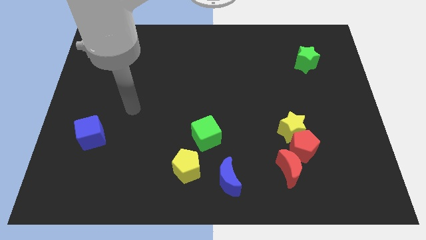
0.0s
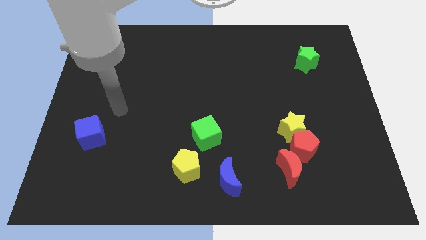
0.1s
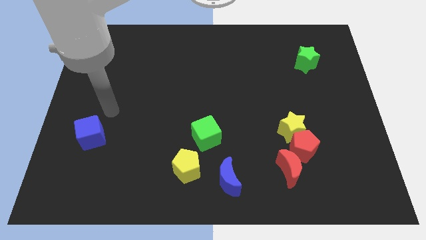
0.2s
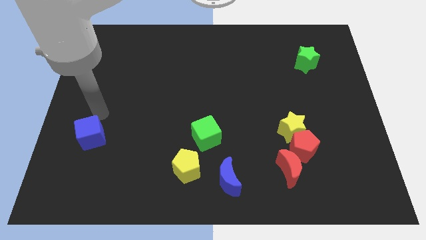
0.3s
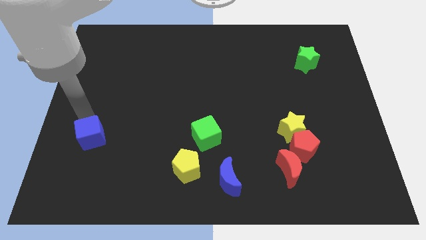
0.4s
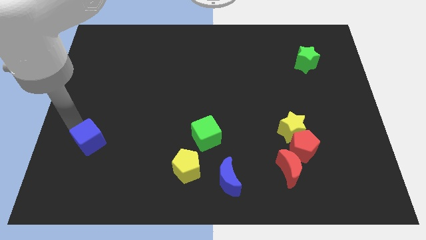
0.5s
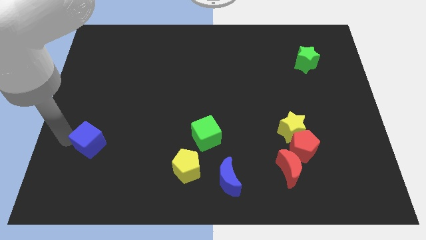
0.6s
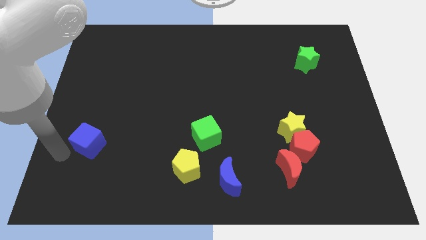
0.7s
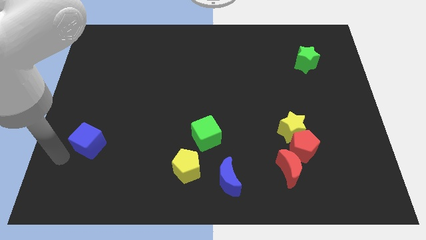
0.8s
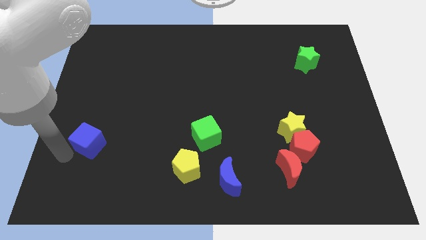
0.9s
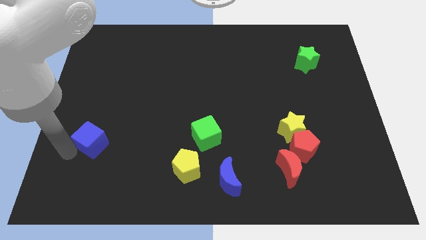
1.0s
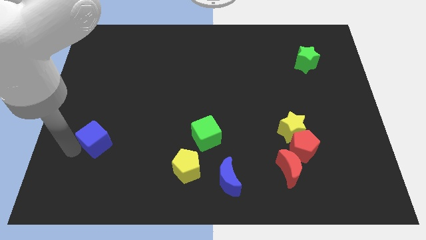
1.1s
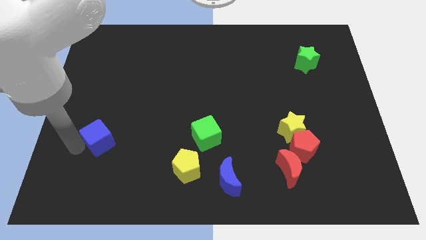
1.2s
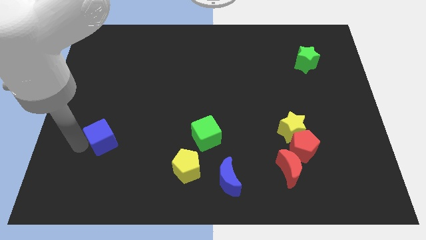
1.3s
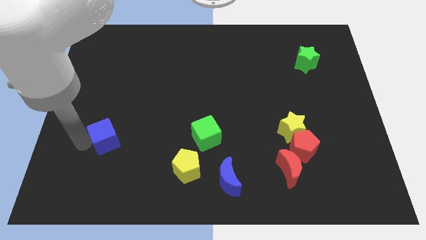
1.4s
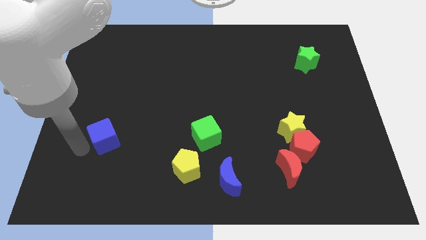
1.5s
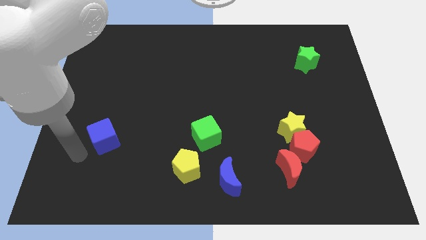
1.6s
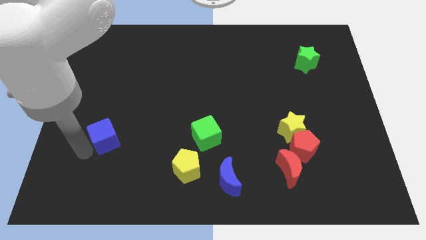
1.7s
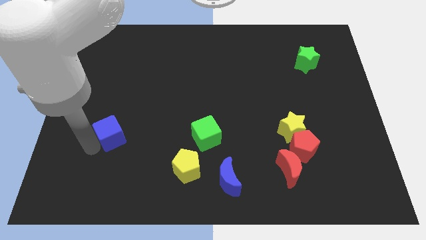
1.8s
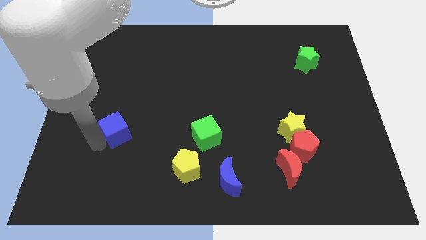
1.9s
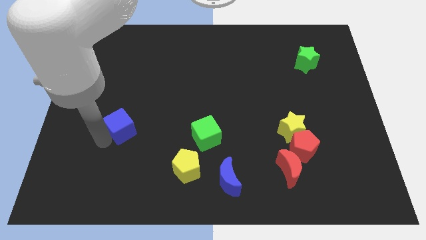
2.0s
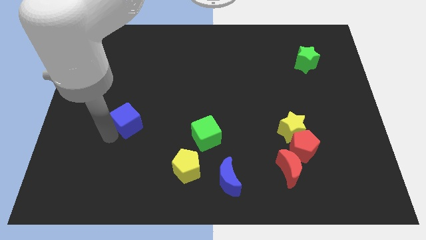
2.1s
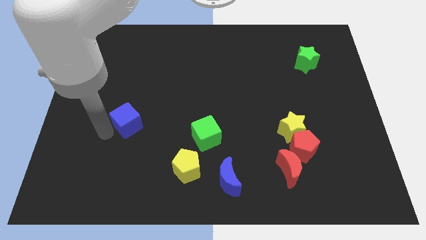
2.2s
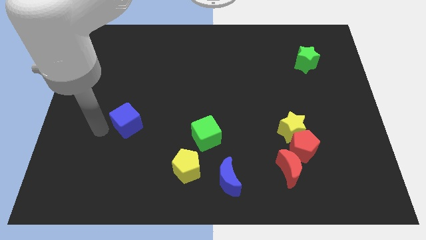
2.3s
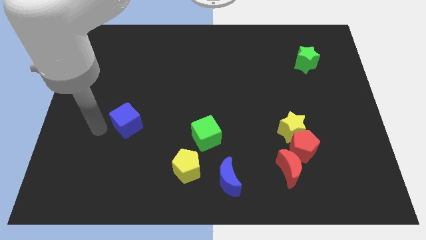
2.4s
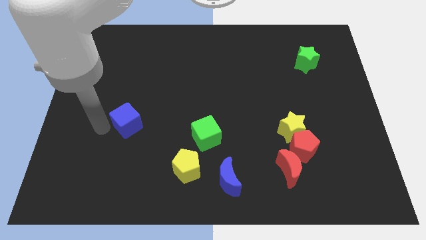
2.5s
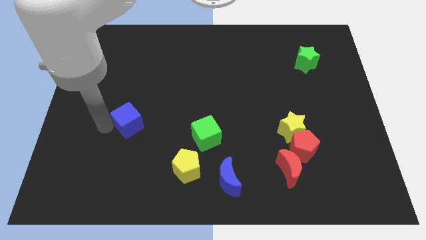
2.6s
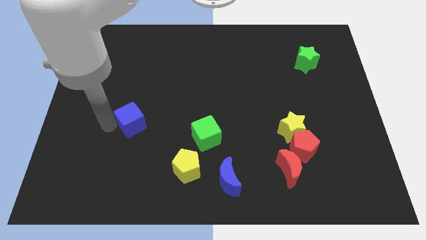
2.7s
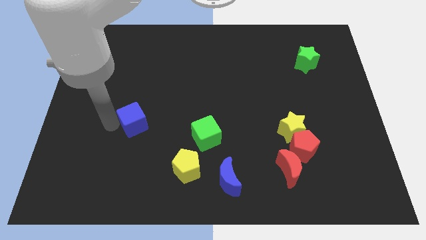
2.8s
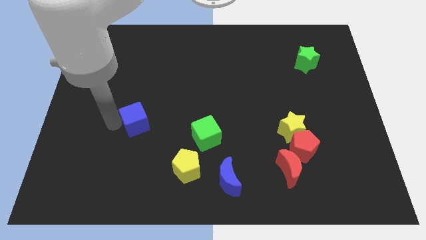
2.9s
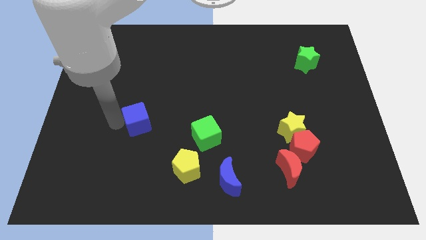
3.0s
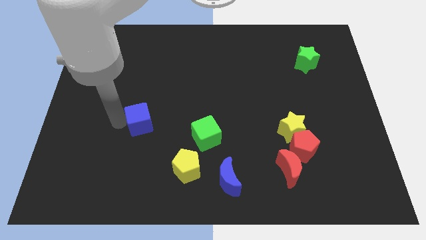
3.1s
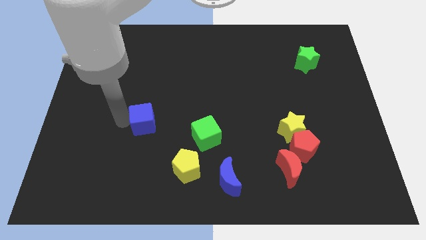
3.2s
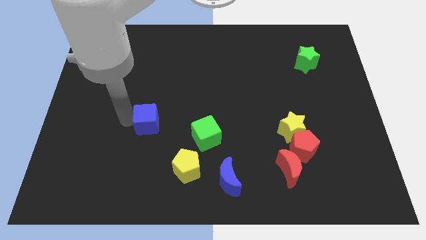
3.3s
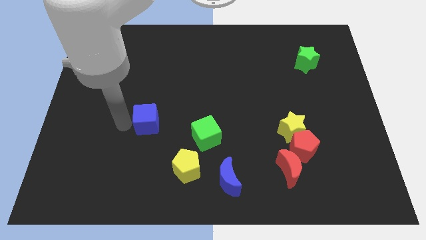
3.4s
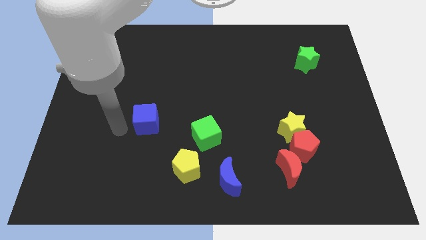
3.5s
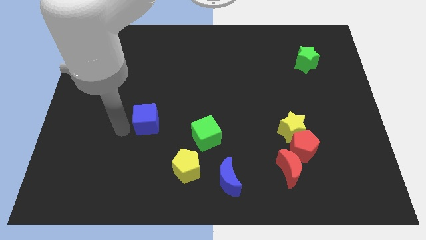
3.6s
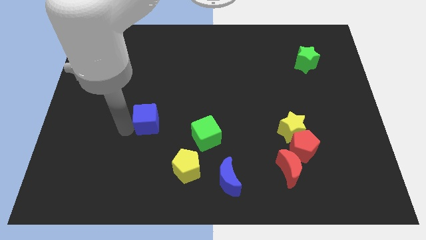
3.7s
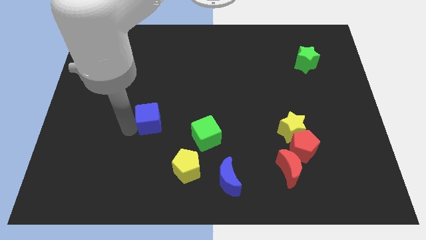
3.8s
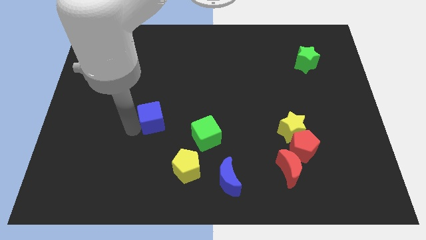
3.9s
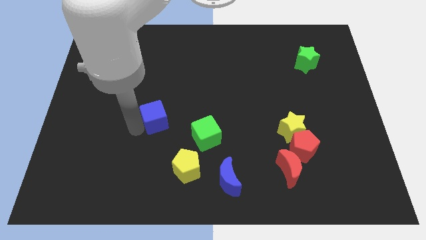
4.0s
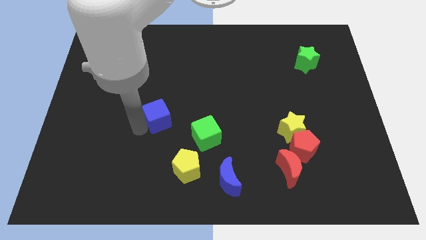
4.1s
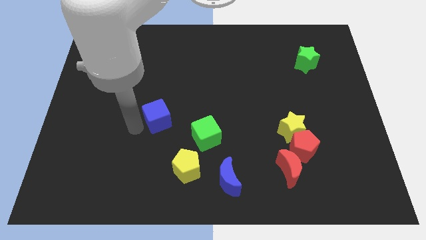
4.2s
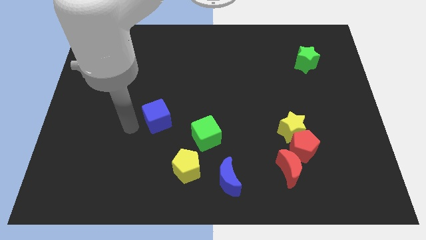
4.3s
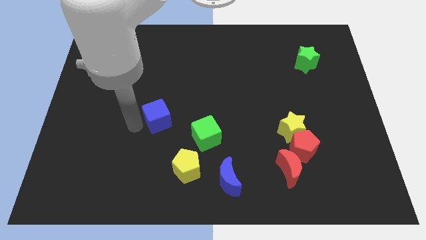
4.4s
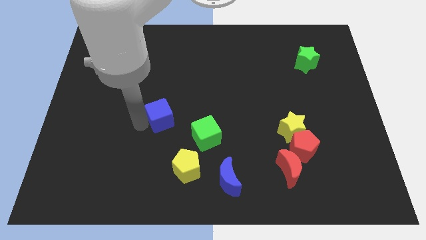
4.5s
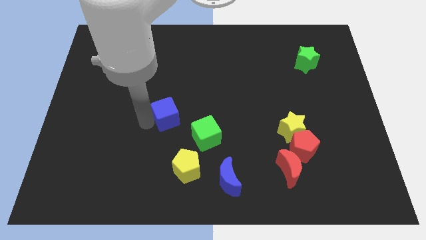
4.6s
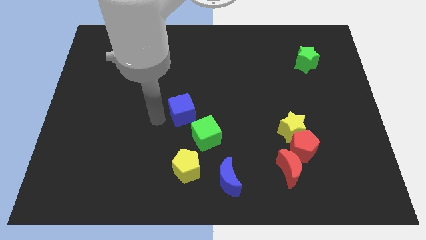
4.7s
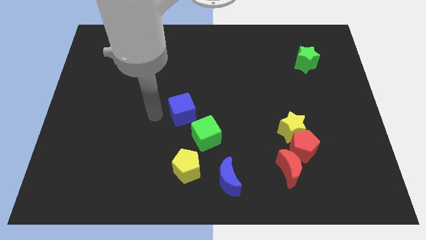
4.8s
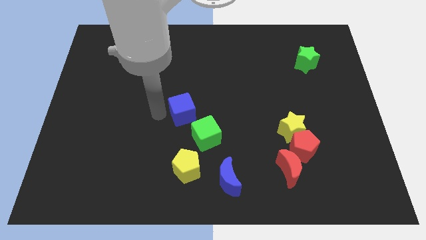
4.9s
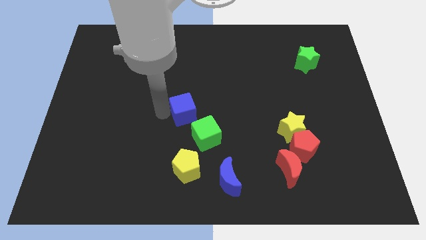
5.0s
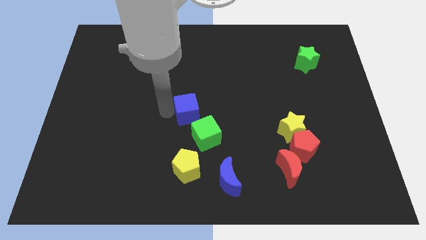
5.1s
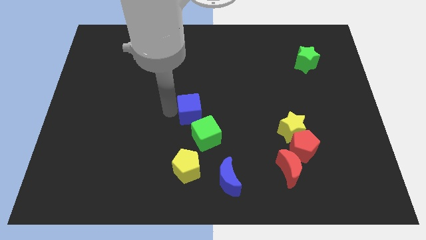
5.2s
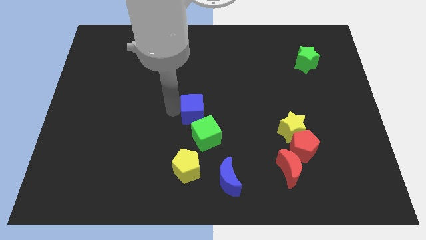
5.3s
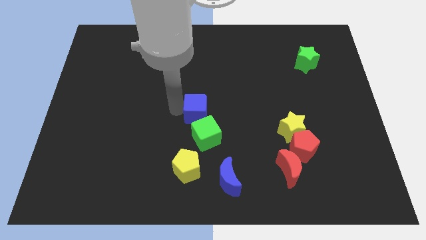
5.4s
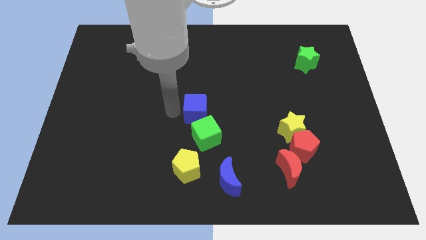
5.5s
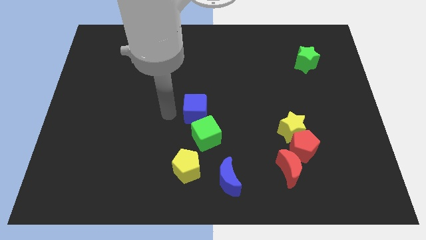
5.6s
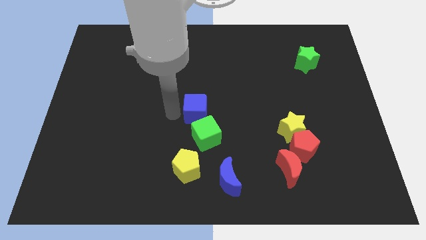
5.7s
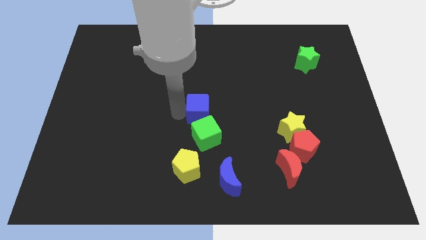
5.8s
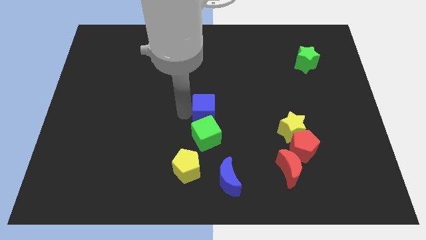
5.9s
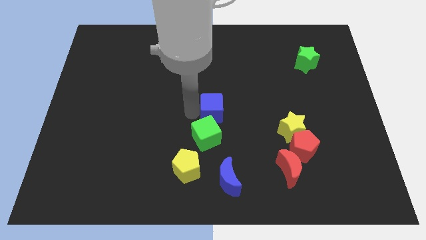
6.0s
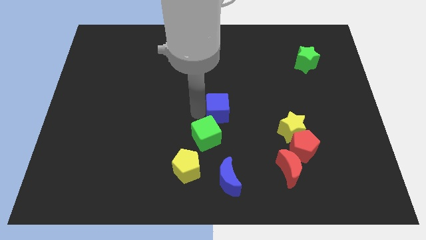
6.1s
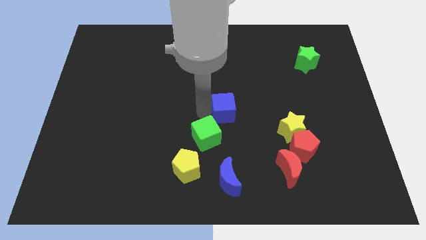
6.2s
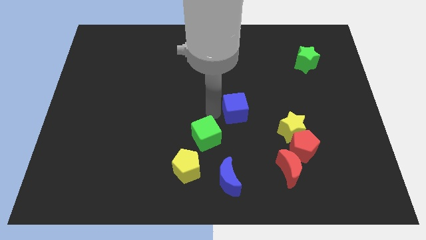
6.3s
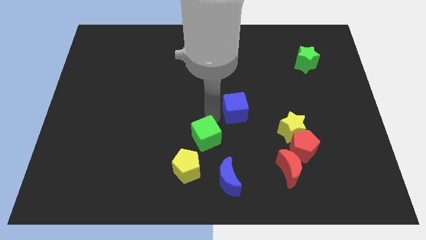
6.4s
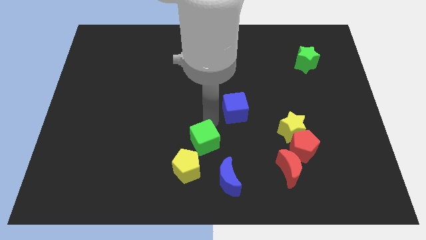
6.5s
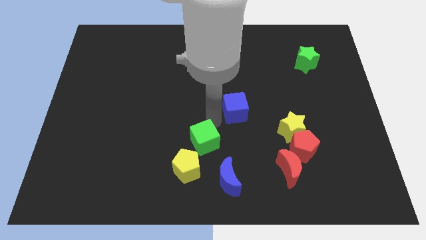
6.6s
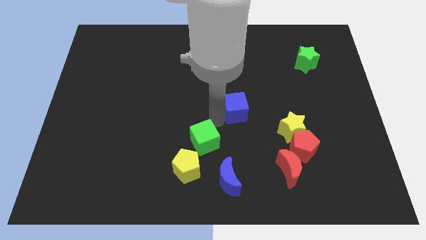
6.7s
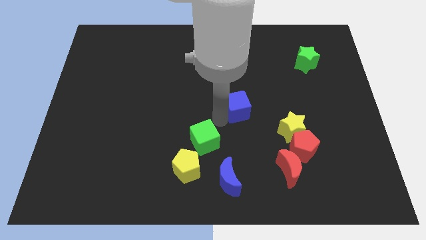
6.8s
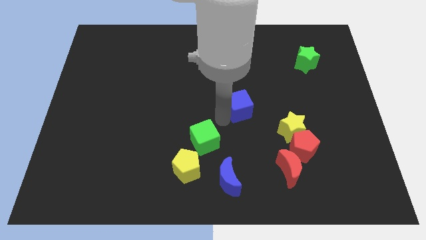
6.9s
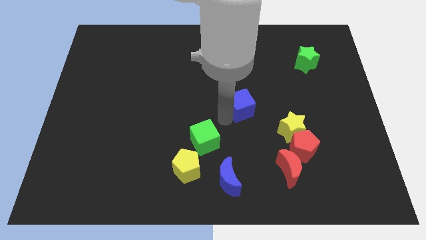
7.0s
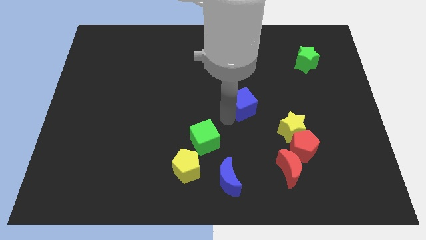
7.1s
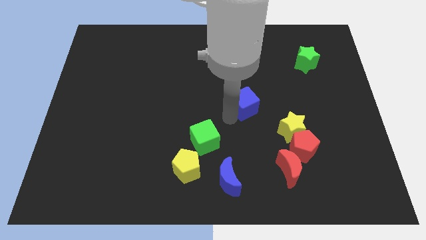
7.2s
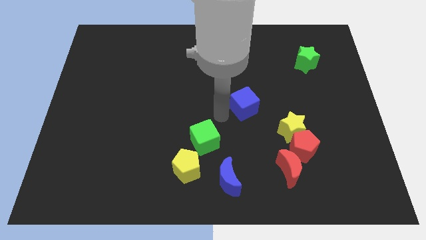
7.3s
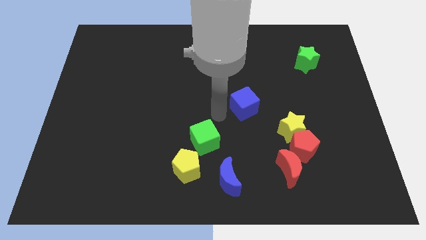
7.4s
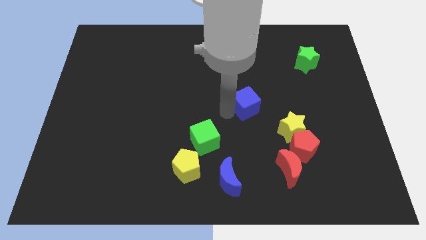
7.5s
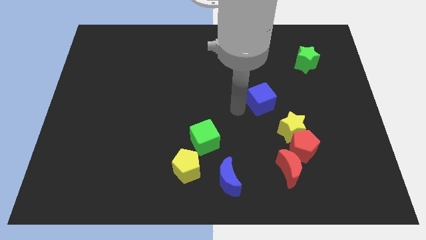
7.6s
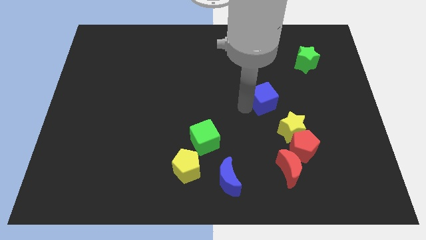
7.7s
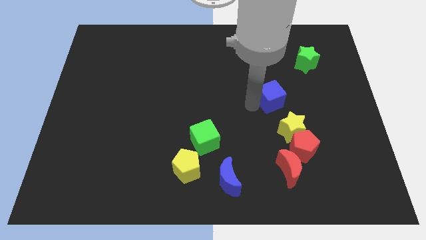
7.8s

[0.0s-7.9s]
slide the blue cube above the yellow star
